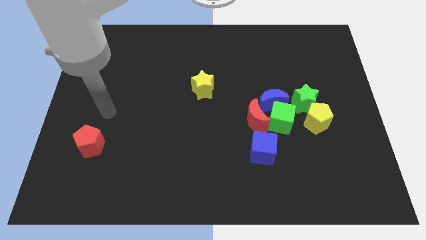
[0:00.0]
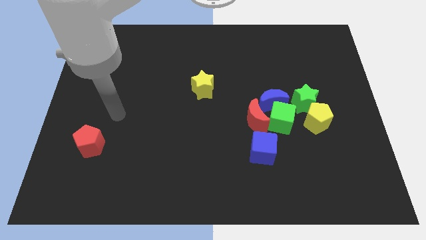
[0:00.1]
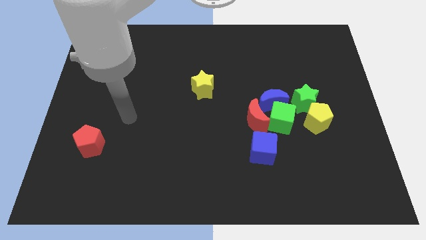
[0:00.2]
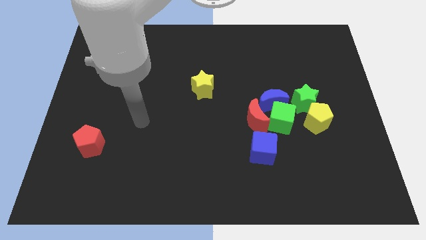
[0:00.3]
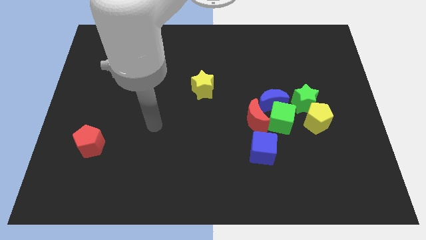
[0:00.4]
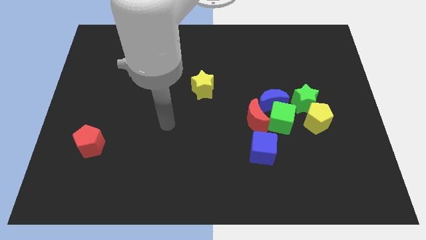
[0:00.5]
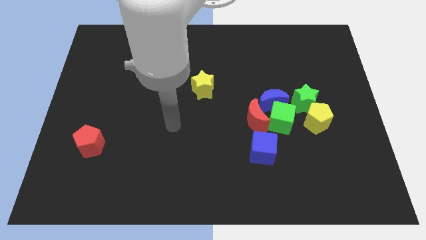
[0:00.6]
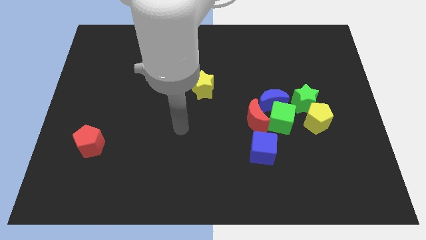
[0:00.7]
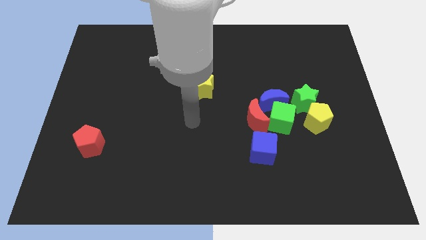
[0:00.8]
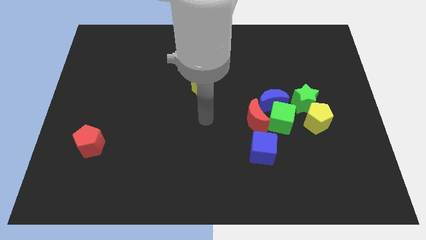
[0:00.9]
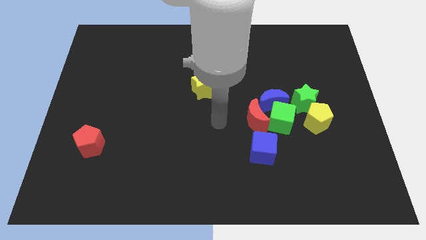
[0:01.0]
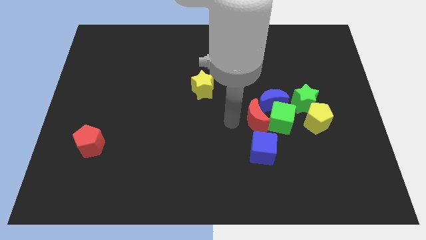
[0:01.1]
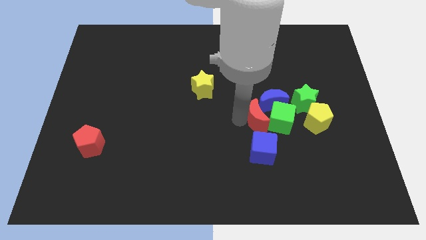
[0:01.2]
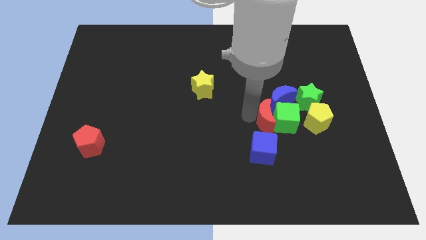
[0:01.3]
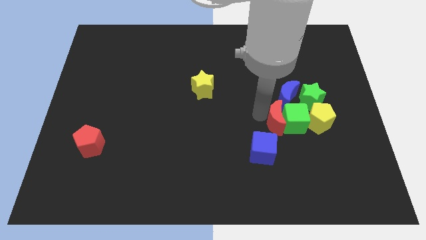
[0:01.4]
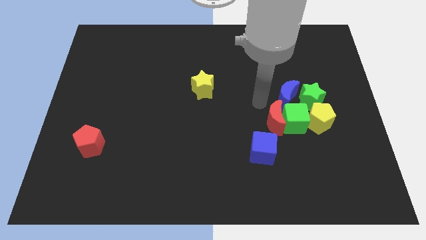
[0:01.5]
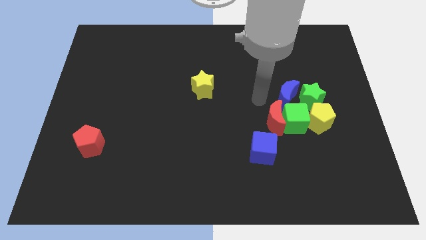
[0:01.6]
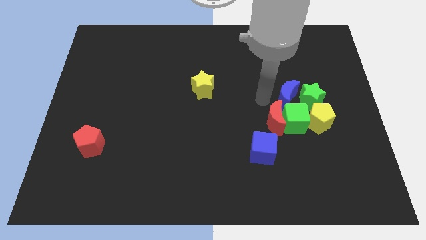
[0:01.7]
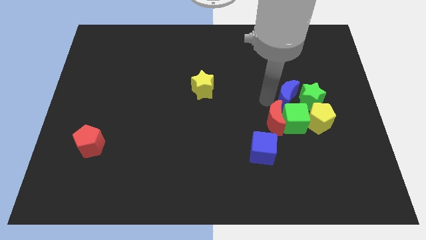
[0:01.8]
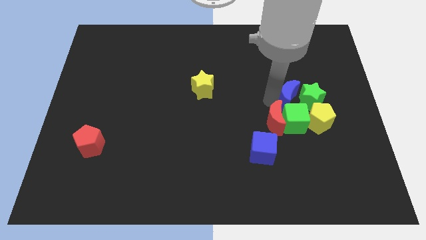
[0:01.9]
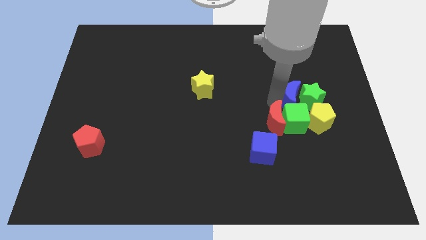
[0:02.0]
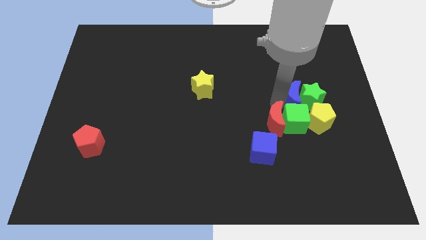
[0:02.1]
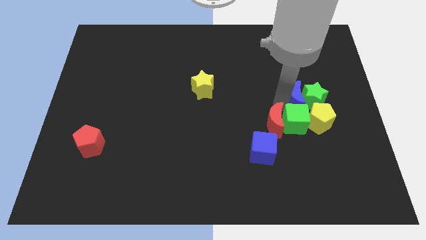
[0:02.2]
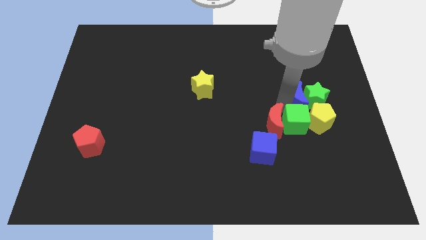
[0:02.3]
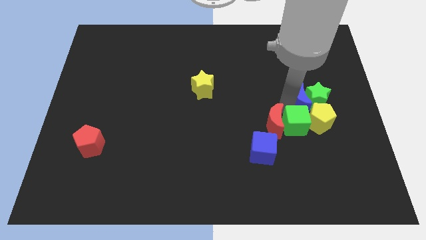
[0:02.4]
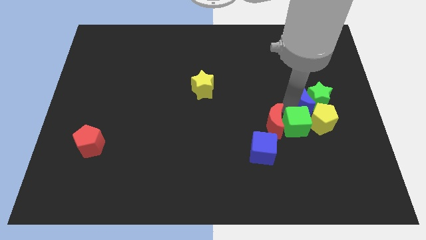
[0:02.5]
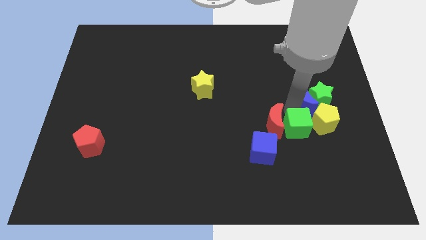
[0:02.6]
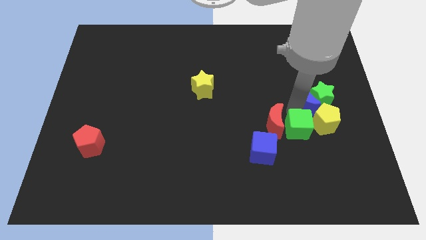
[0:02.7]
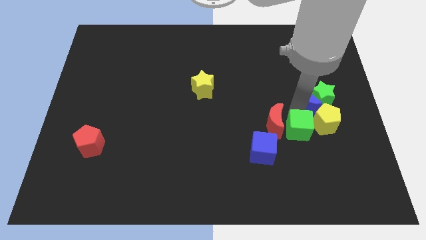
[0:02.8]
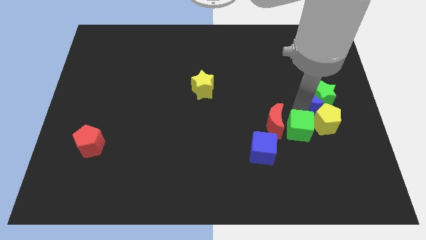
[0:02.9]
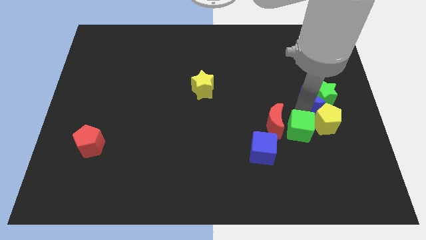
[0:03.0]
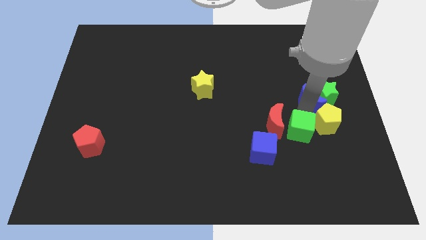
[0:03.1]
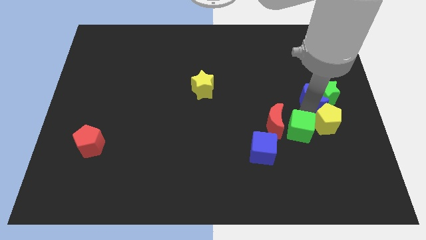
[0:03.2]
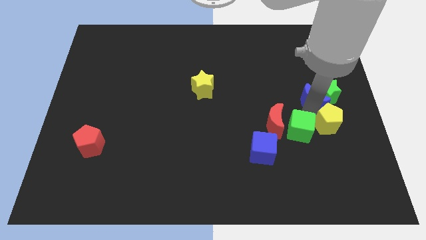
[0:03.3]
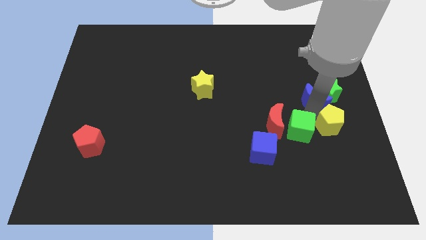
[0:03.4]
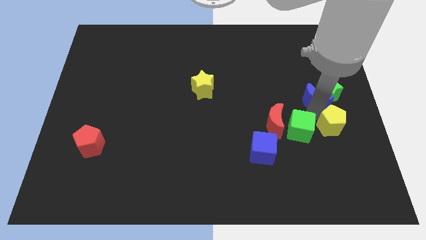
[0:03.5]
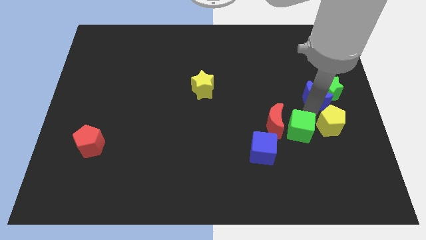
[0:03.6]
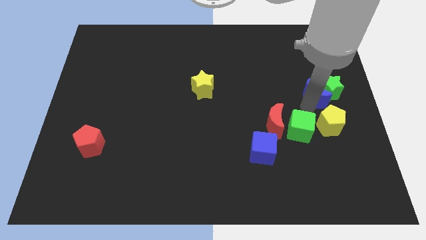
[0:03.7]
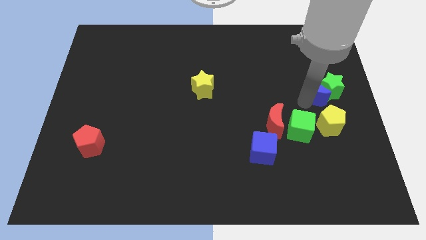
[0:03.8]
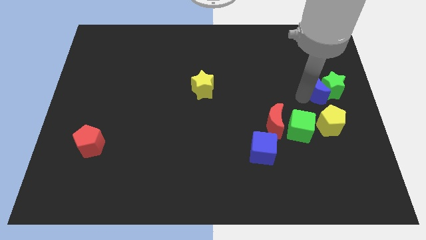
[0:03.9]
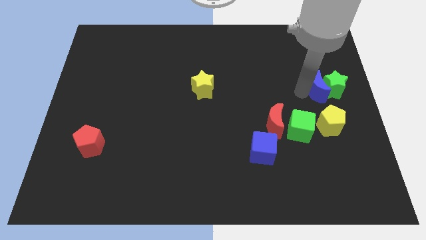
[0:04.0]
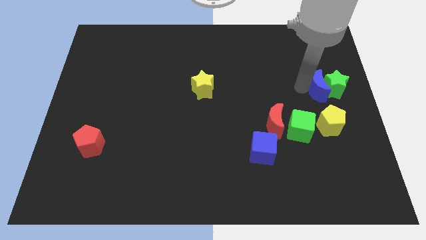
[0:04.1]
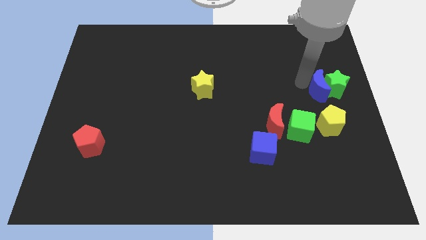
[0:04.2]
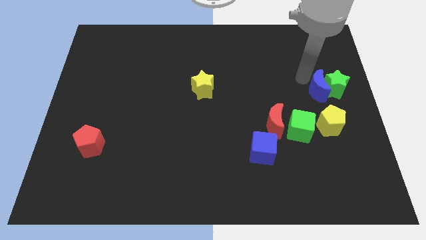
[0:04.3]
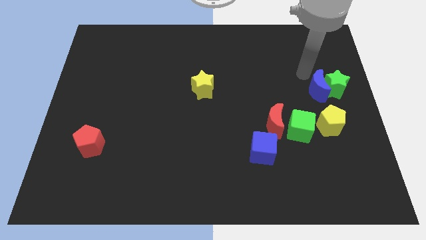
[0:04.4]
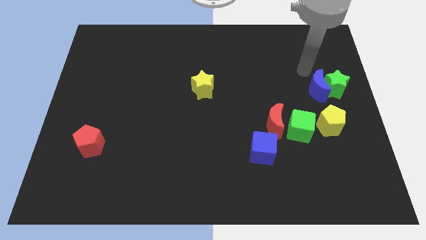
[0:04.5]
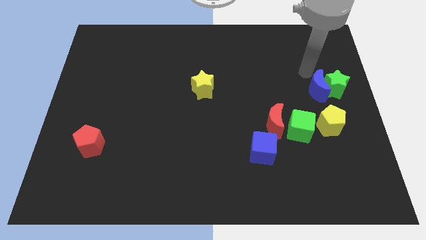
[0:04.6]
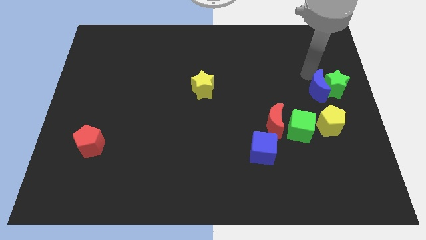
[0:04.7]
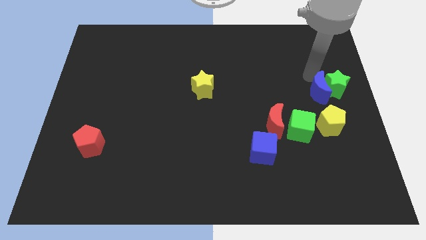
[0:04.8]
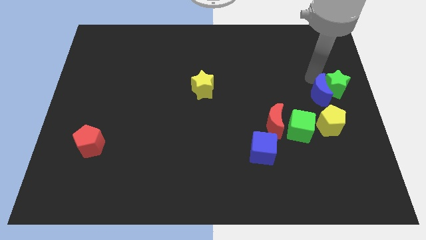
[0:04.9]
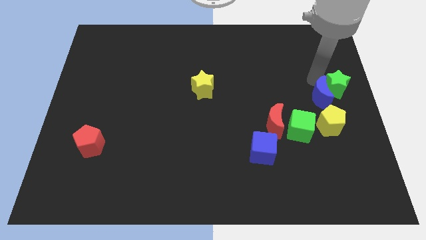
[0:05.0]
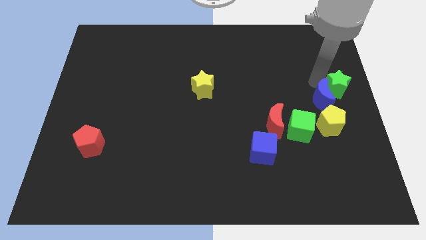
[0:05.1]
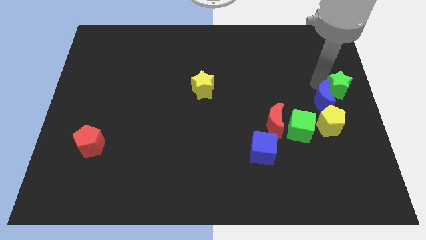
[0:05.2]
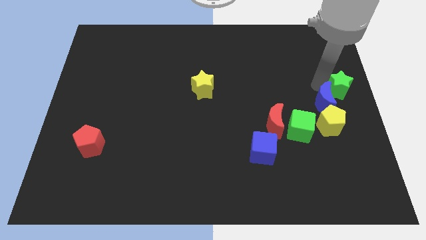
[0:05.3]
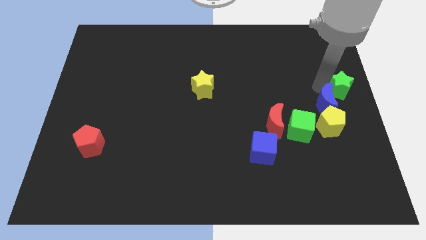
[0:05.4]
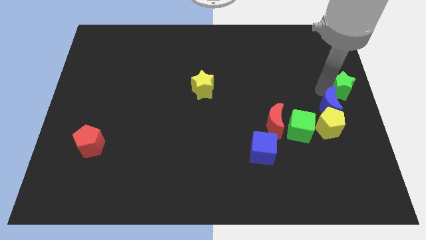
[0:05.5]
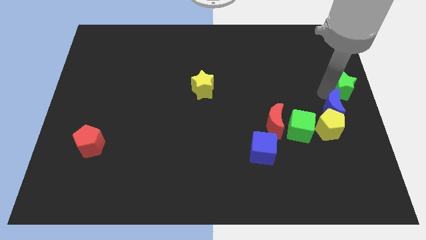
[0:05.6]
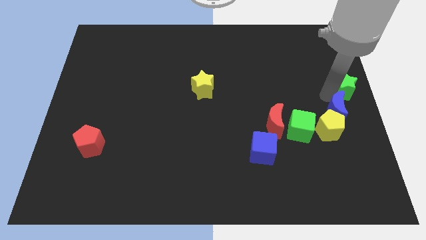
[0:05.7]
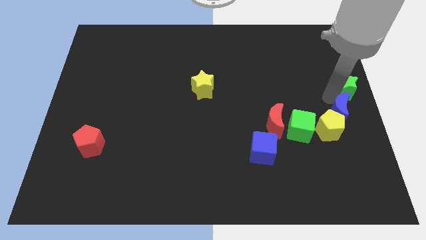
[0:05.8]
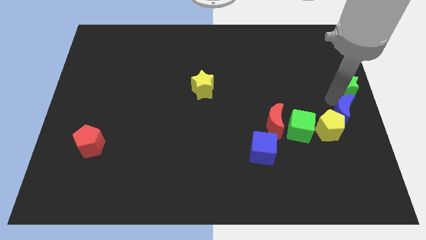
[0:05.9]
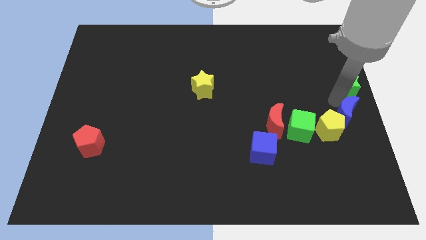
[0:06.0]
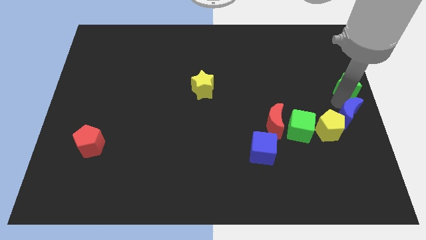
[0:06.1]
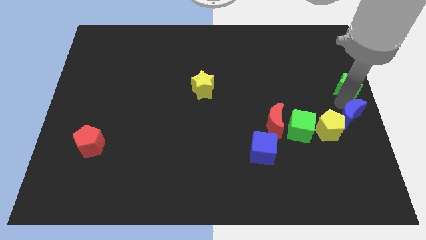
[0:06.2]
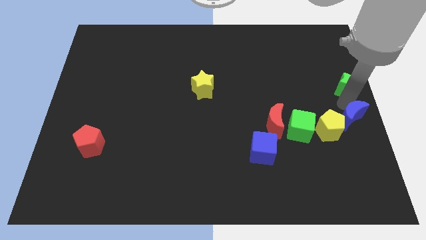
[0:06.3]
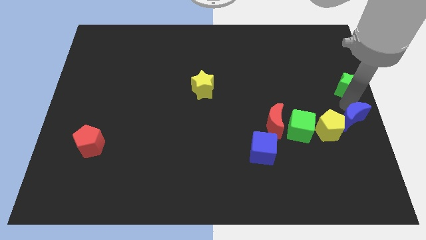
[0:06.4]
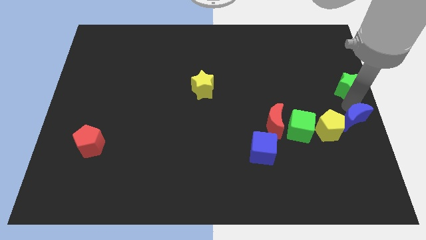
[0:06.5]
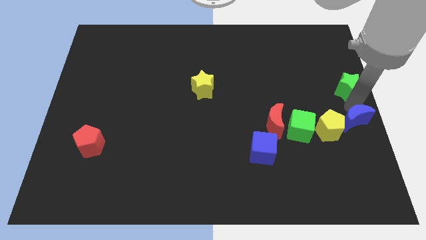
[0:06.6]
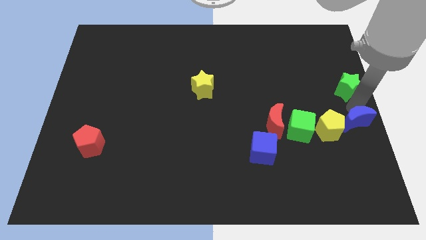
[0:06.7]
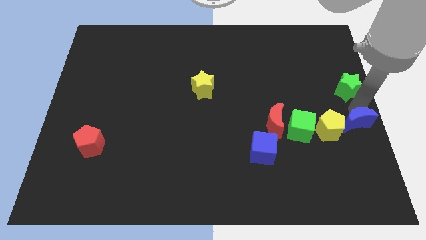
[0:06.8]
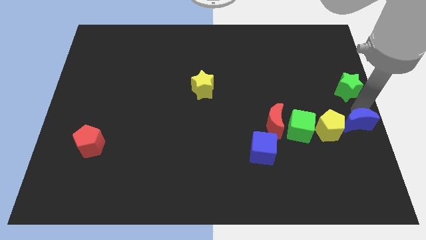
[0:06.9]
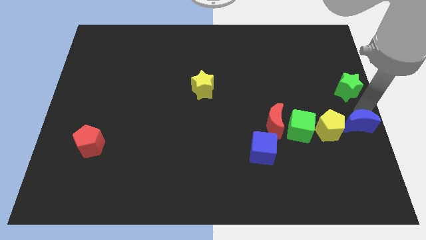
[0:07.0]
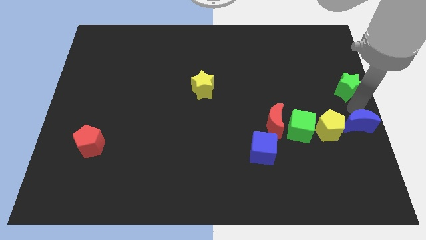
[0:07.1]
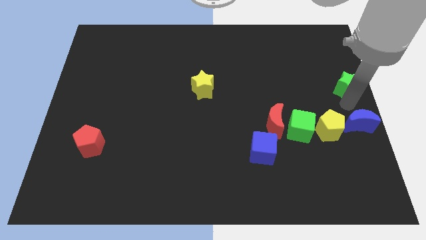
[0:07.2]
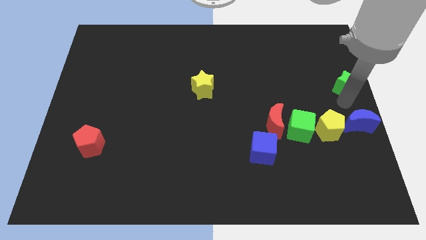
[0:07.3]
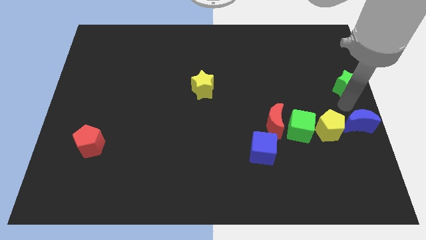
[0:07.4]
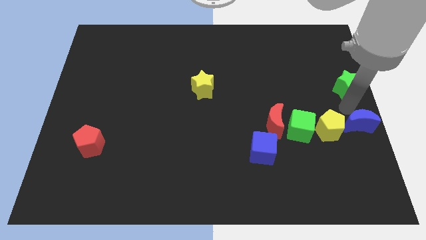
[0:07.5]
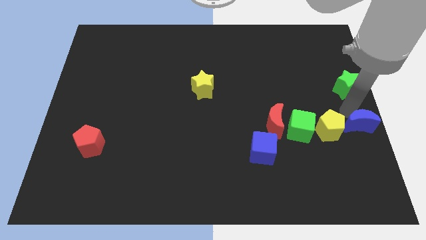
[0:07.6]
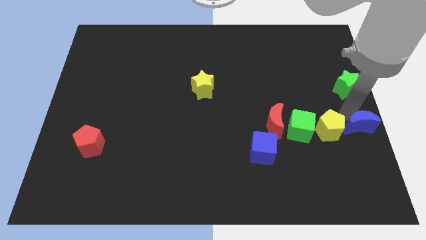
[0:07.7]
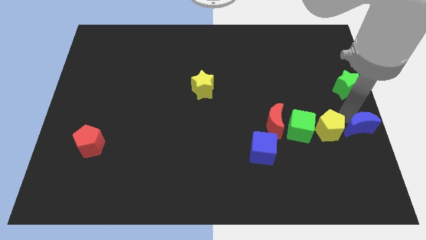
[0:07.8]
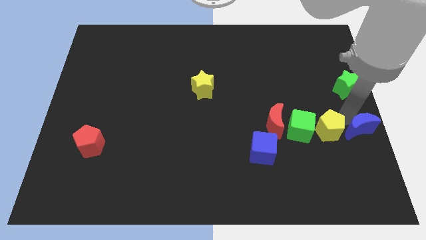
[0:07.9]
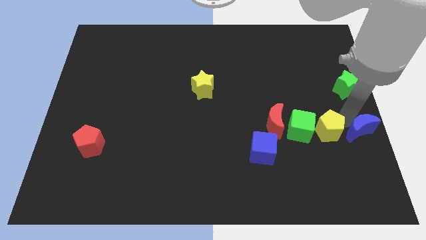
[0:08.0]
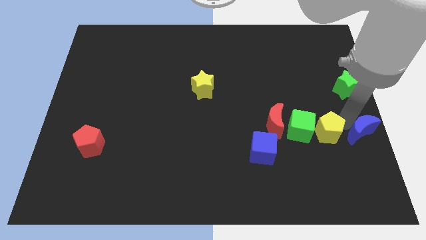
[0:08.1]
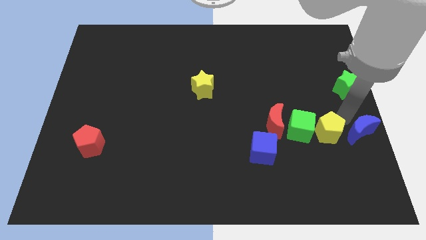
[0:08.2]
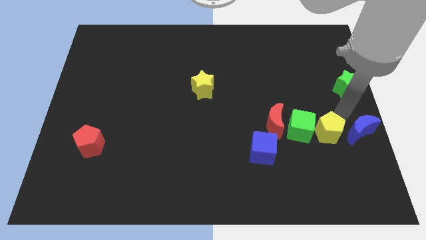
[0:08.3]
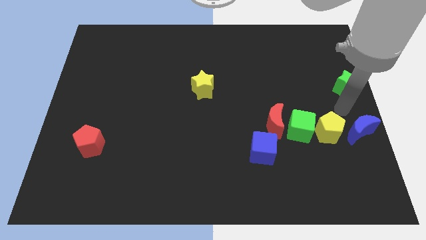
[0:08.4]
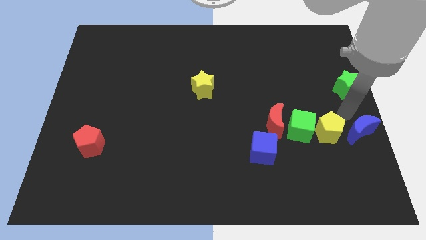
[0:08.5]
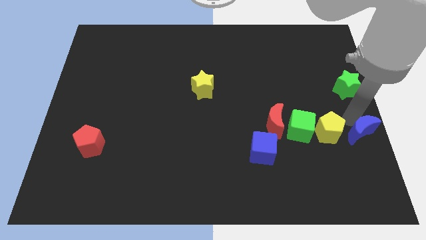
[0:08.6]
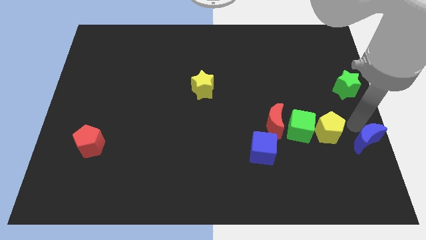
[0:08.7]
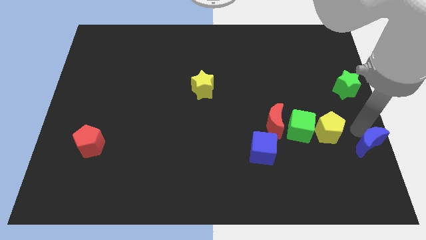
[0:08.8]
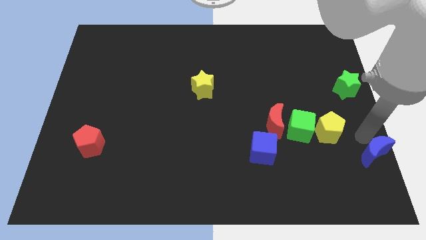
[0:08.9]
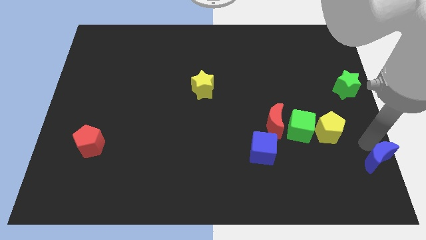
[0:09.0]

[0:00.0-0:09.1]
put the blue moon to the bottom right corner
